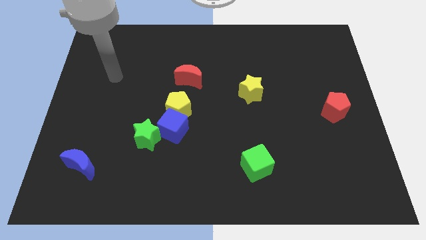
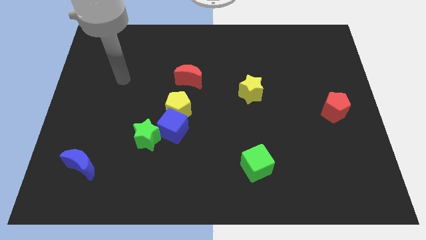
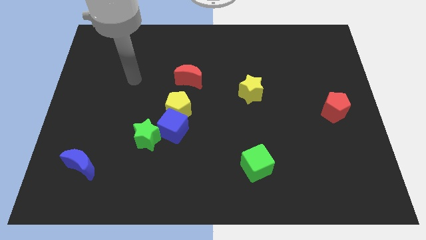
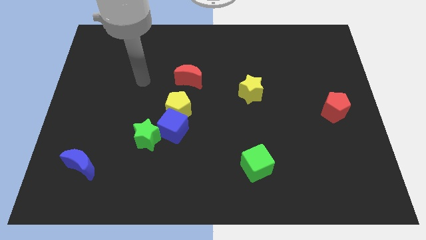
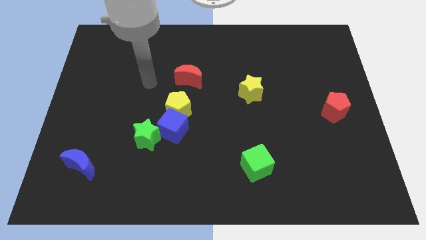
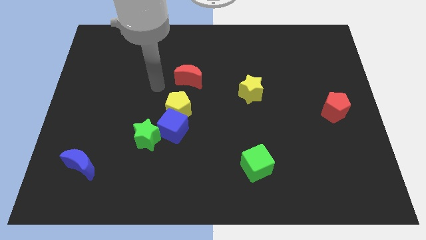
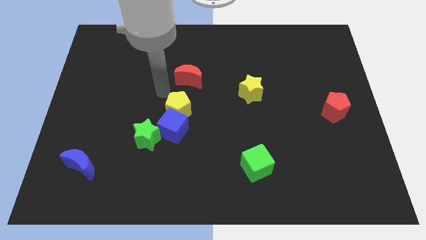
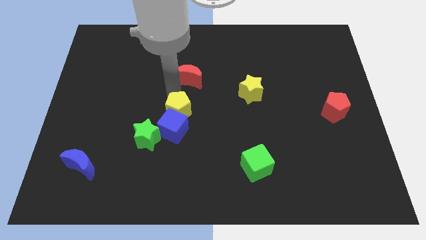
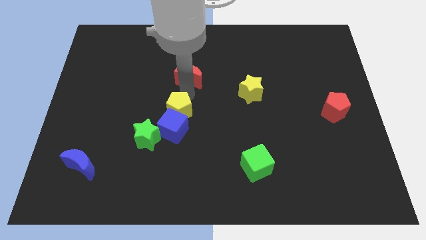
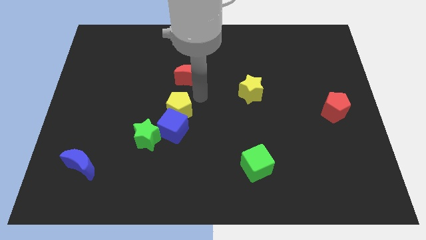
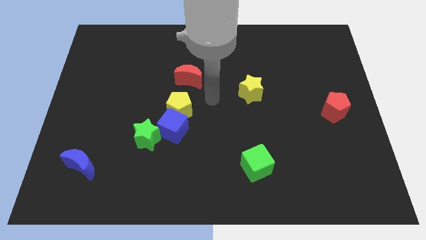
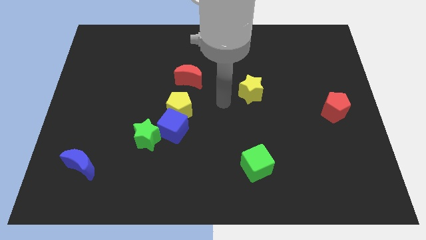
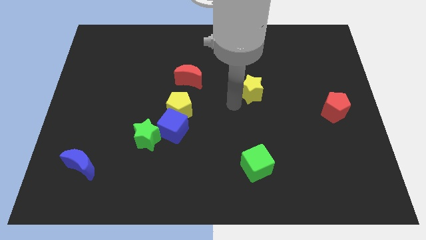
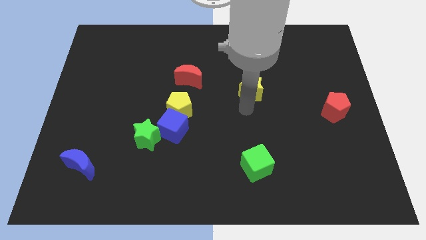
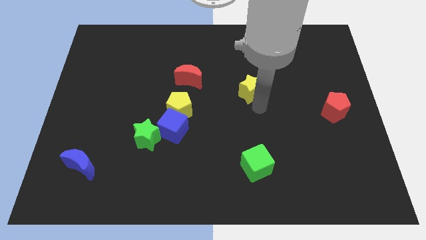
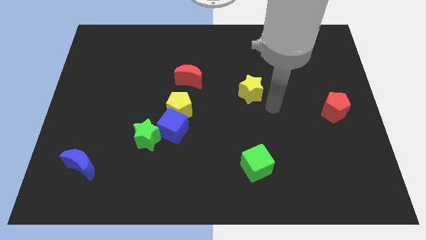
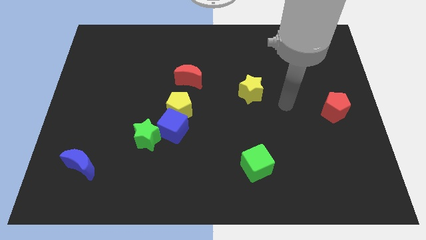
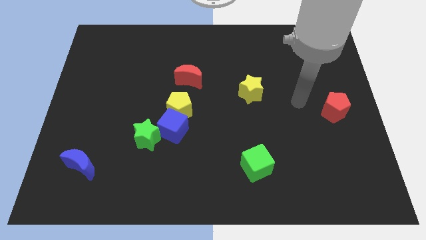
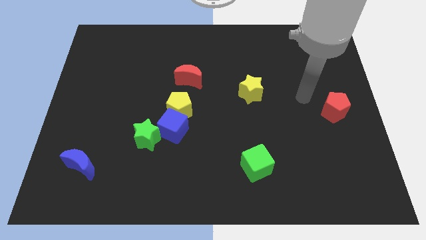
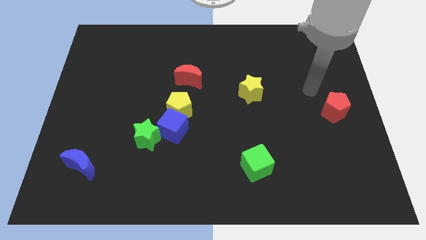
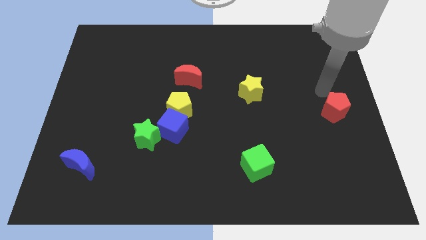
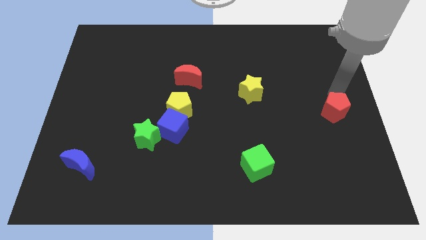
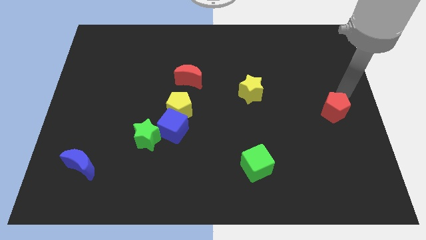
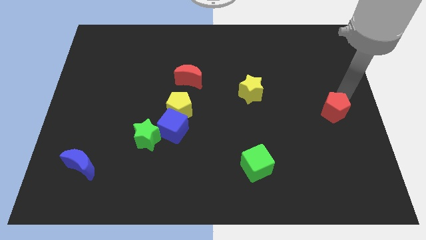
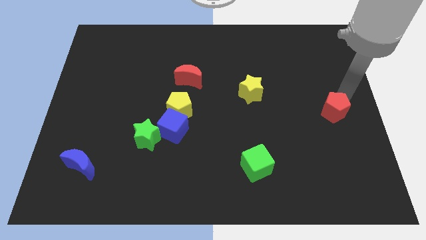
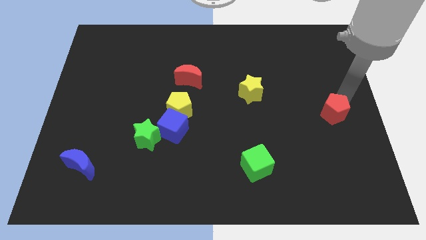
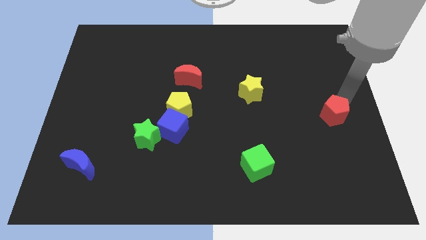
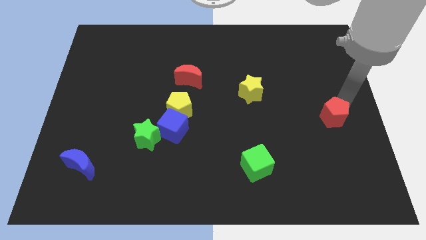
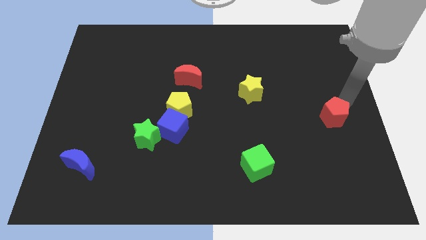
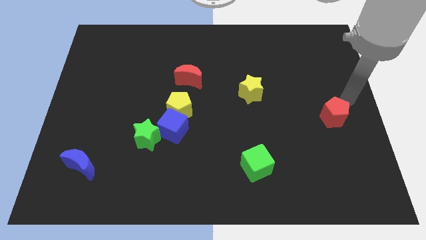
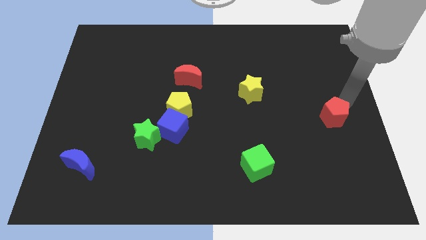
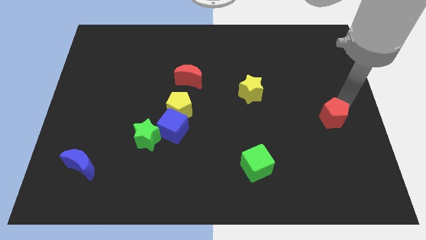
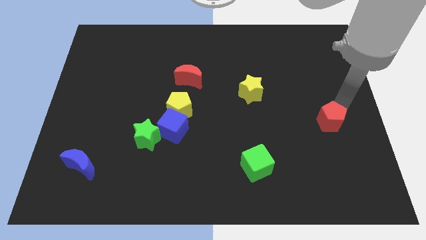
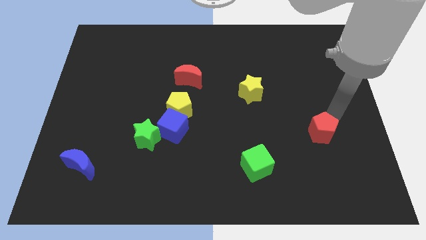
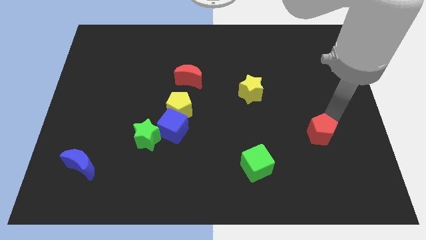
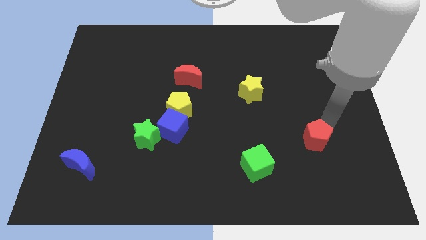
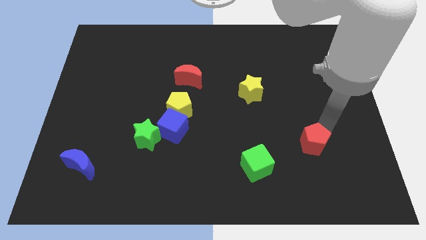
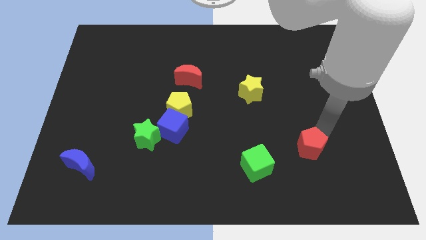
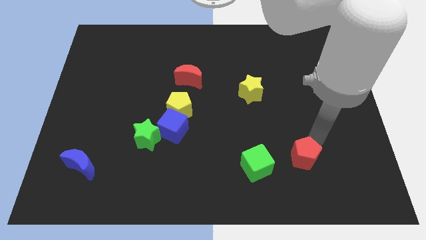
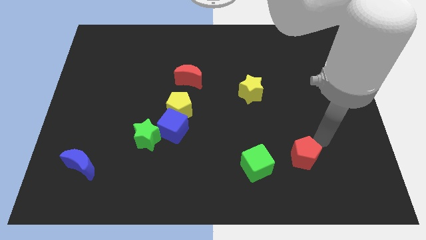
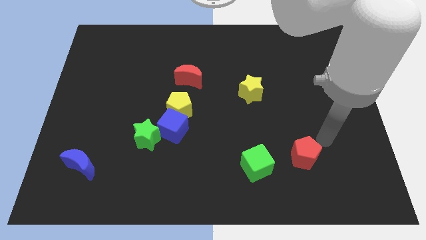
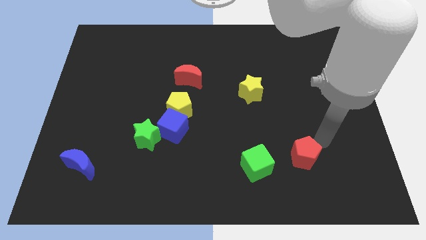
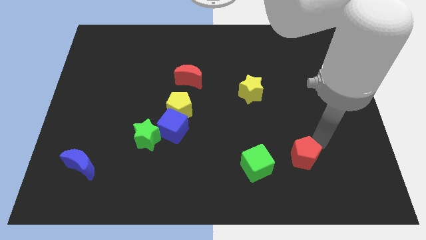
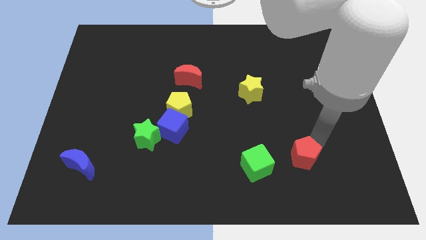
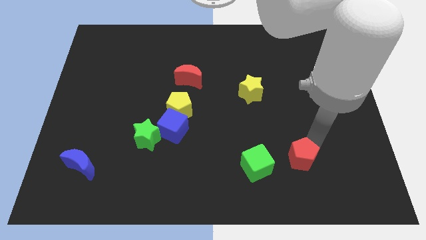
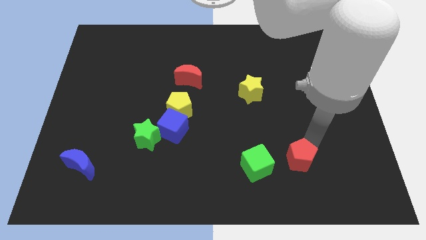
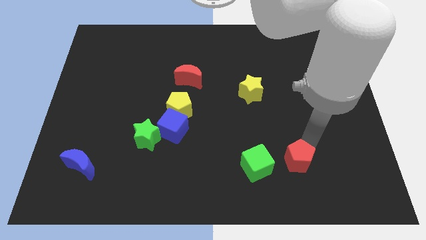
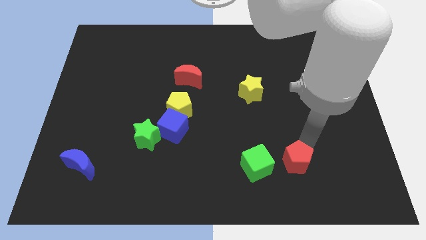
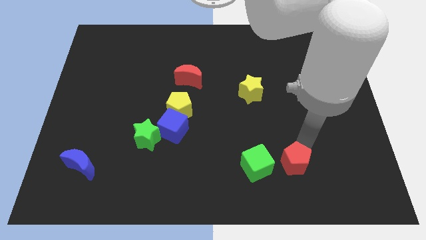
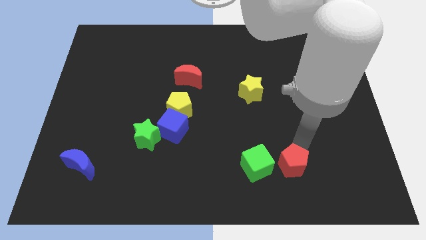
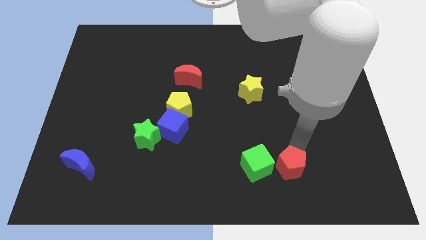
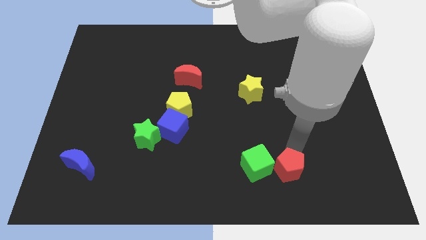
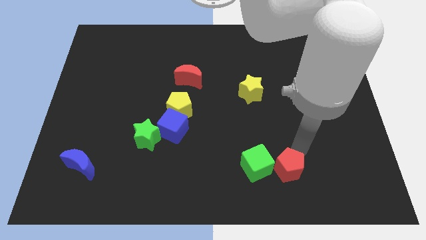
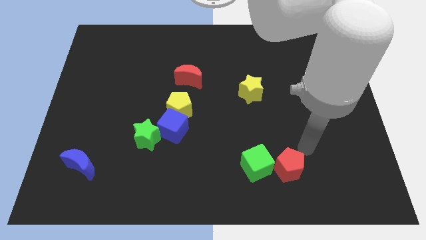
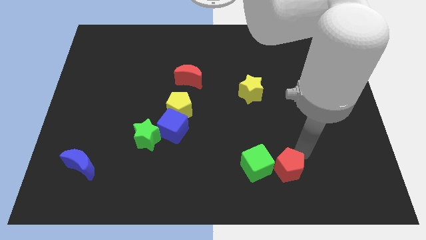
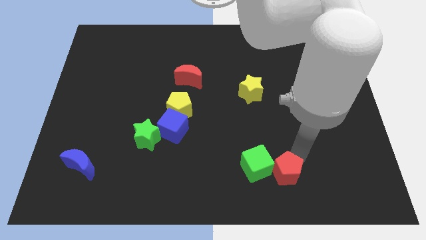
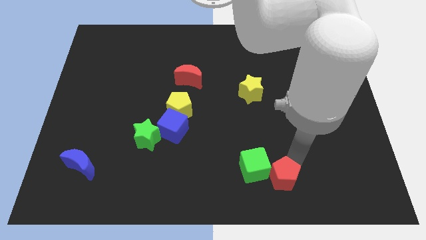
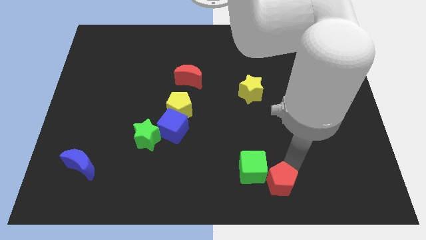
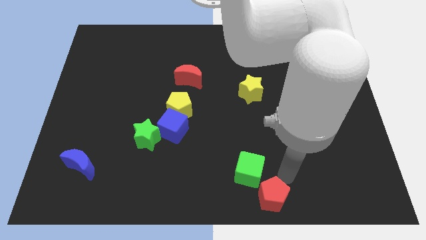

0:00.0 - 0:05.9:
move the red pentagon to the bottom side

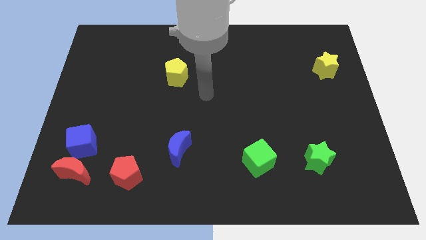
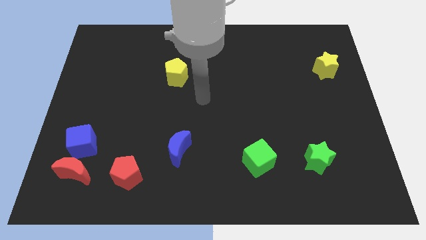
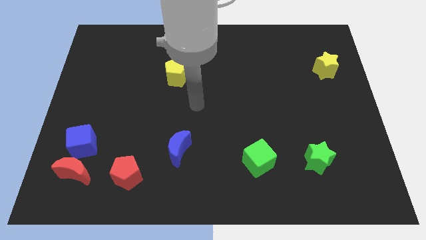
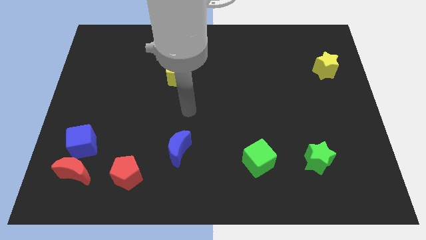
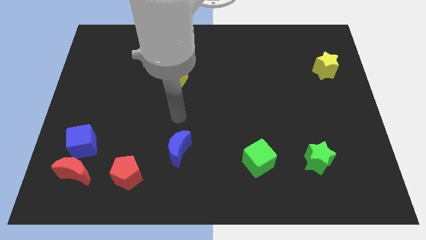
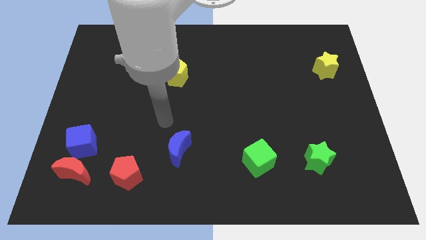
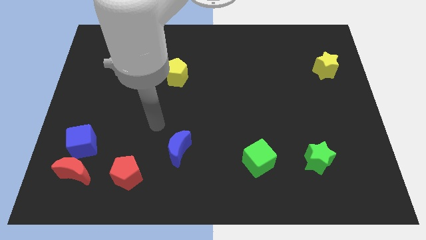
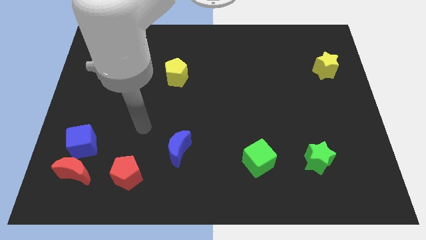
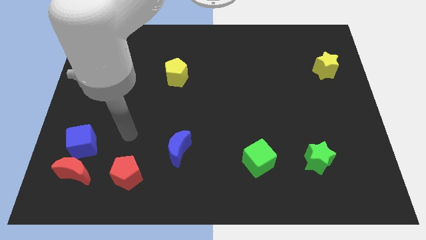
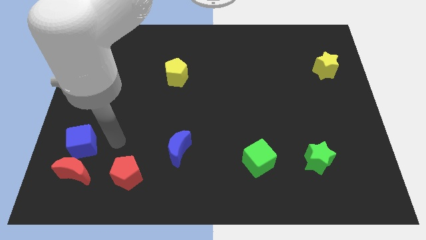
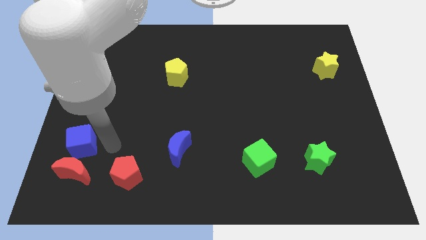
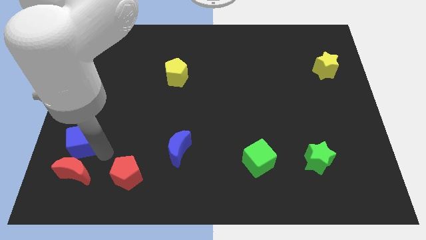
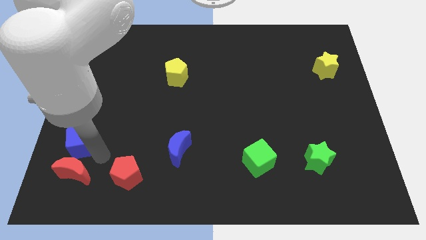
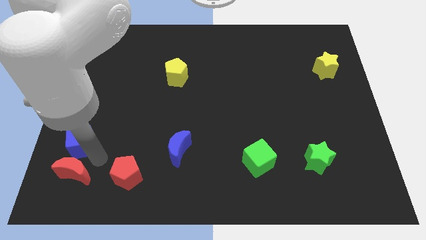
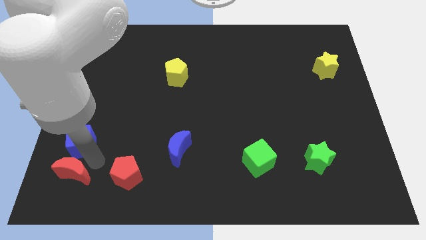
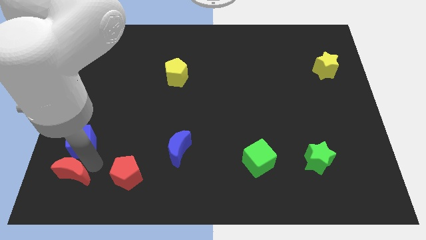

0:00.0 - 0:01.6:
put the red moon to the lower left corner
